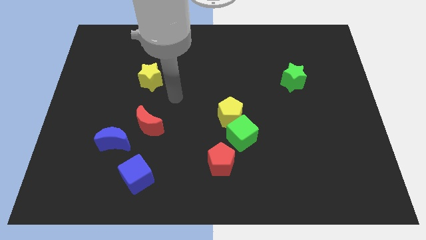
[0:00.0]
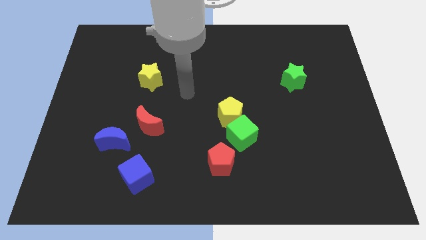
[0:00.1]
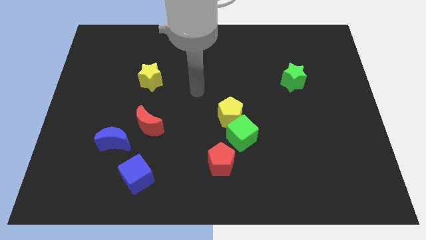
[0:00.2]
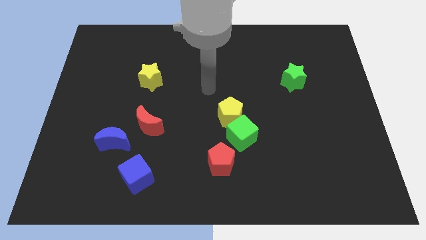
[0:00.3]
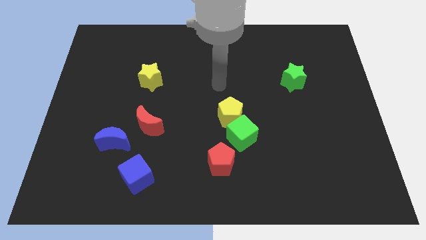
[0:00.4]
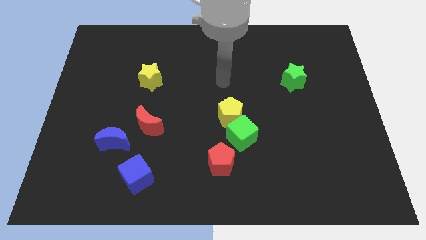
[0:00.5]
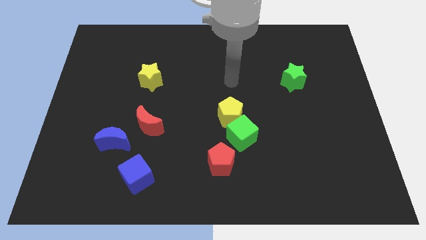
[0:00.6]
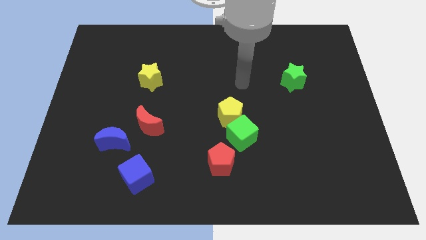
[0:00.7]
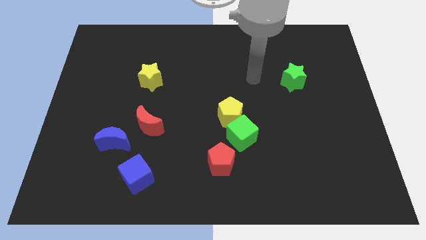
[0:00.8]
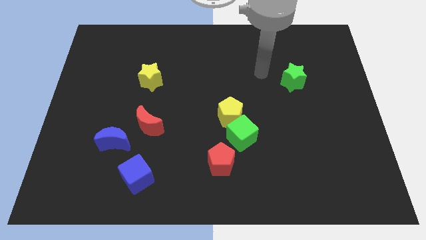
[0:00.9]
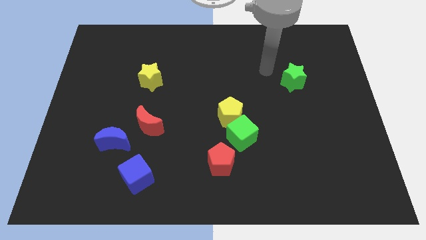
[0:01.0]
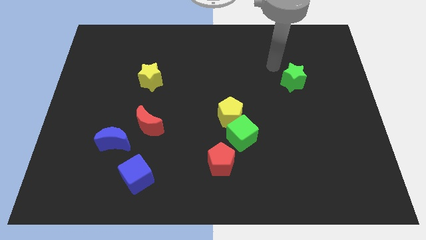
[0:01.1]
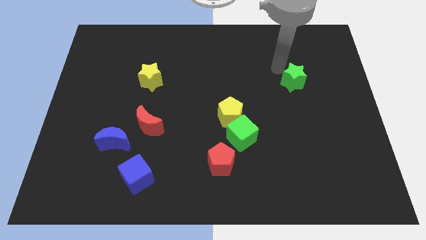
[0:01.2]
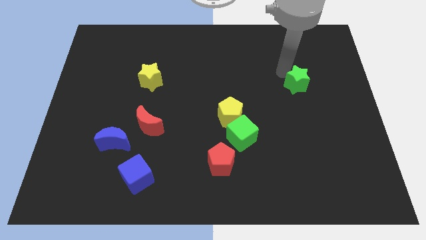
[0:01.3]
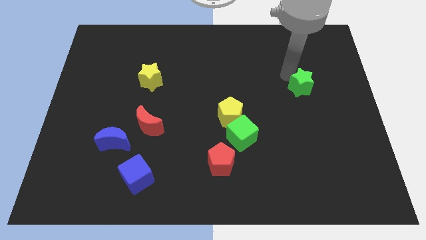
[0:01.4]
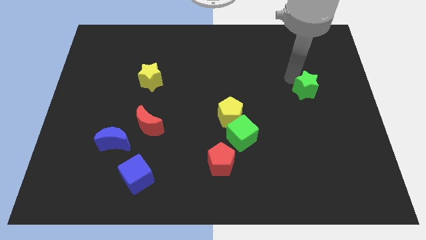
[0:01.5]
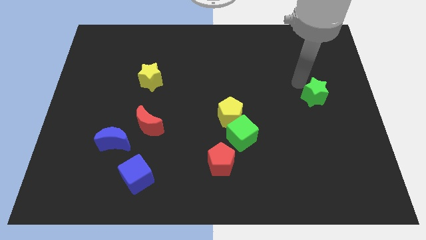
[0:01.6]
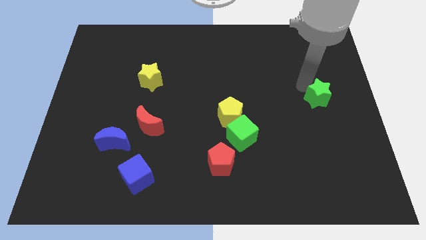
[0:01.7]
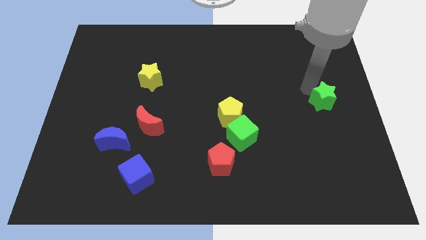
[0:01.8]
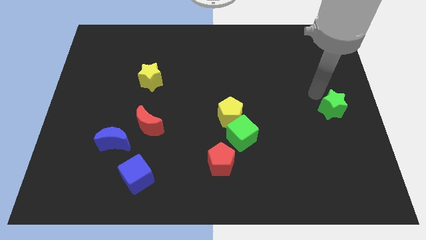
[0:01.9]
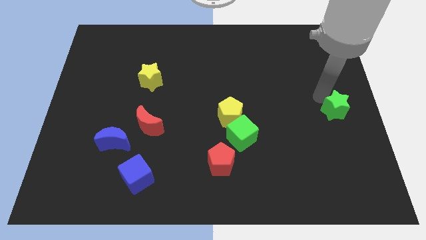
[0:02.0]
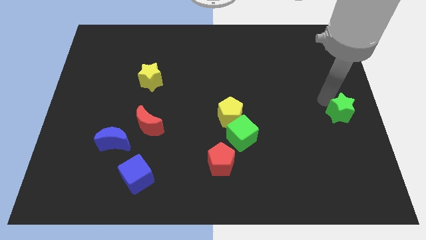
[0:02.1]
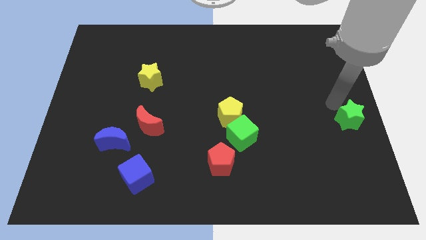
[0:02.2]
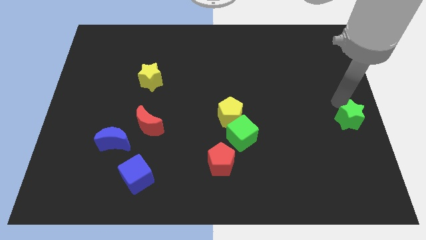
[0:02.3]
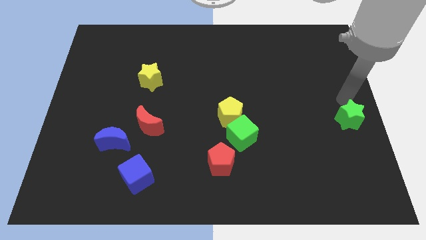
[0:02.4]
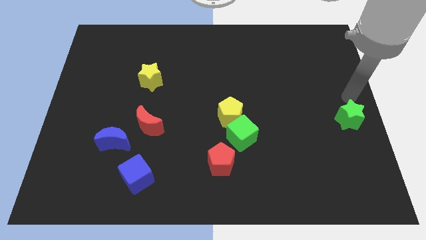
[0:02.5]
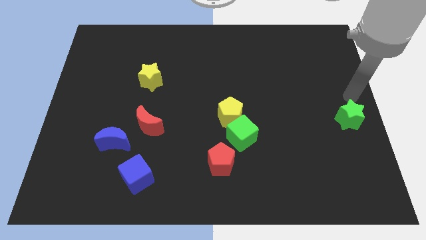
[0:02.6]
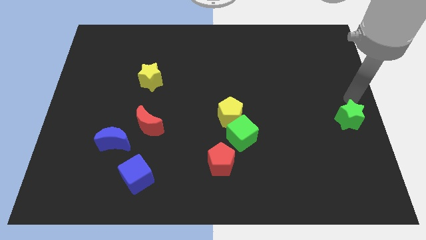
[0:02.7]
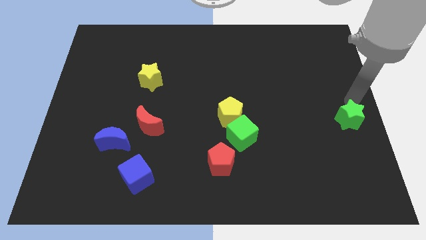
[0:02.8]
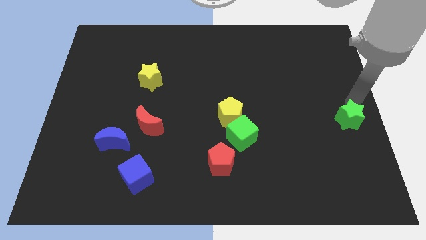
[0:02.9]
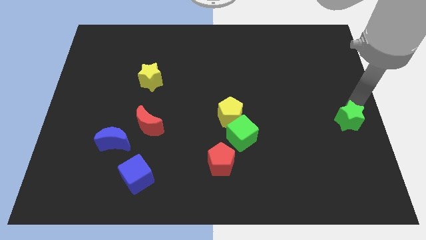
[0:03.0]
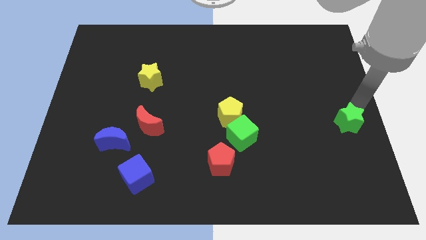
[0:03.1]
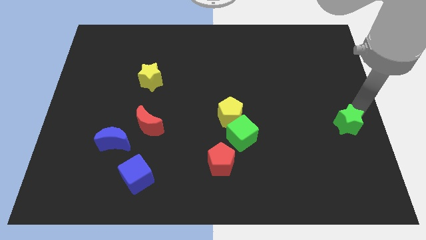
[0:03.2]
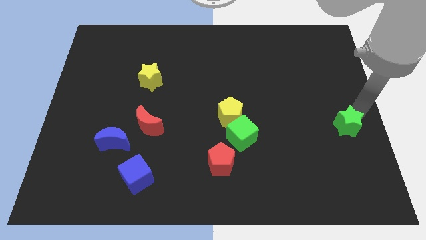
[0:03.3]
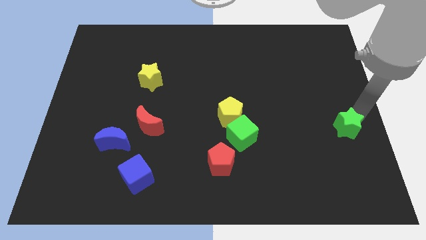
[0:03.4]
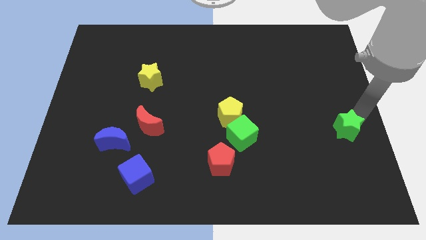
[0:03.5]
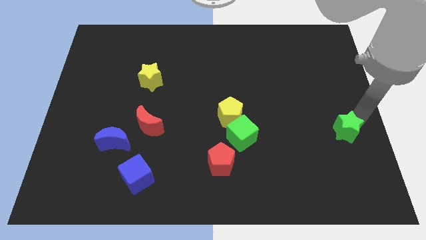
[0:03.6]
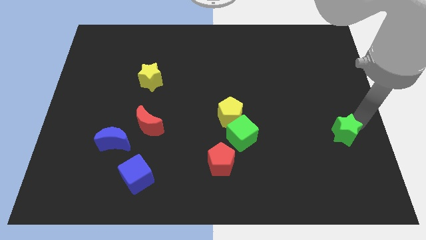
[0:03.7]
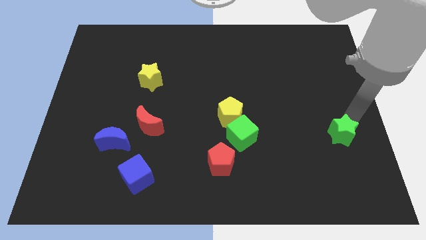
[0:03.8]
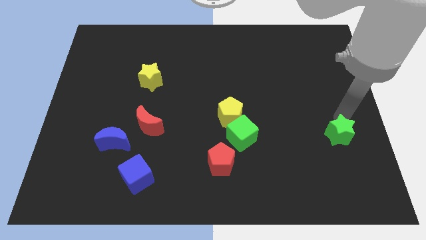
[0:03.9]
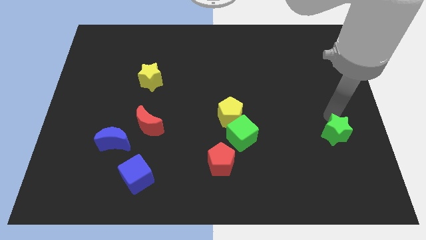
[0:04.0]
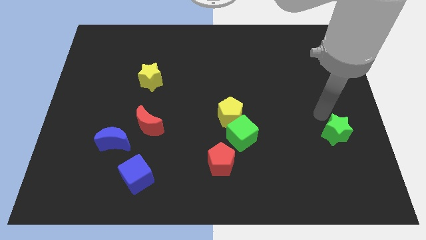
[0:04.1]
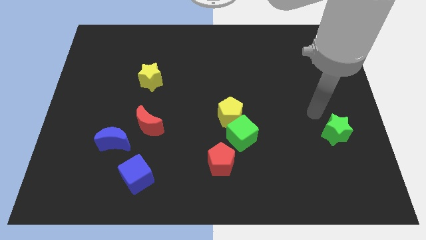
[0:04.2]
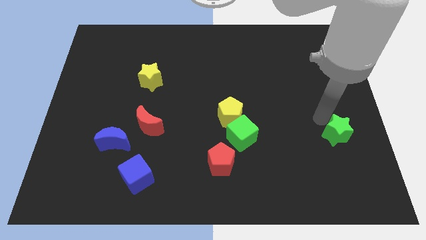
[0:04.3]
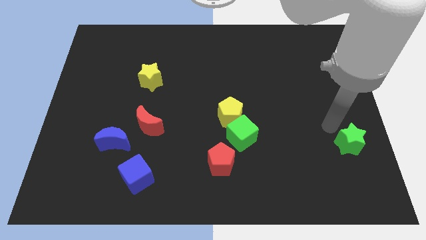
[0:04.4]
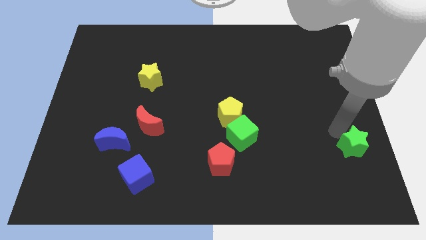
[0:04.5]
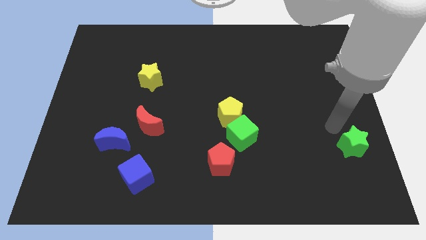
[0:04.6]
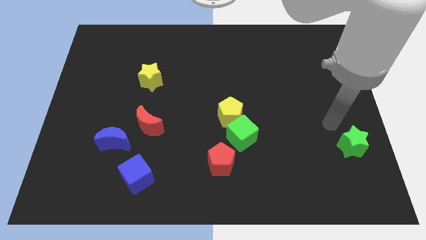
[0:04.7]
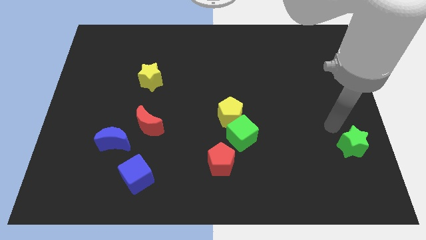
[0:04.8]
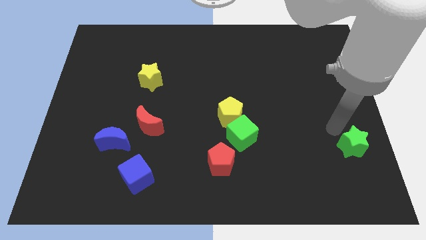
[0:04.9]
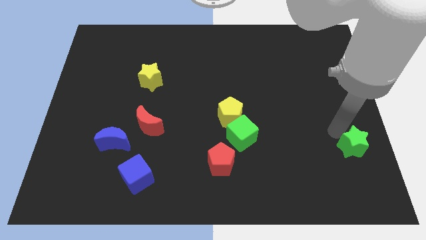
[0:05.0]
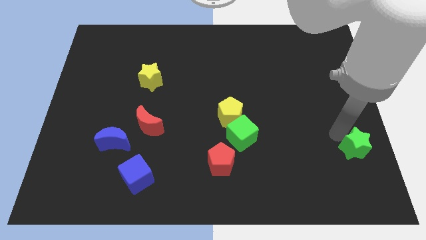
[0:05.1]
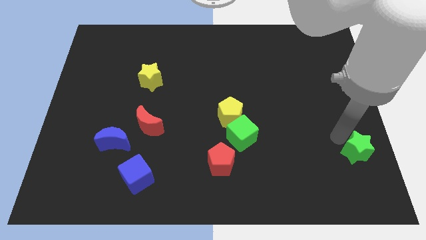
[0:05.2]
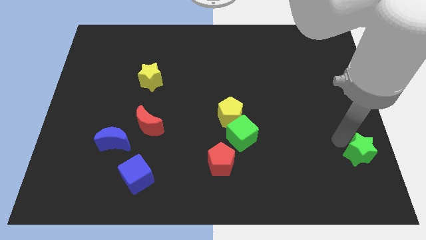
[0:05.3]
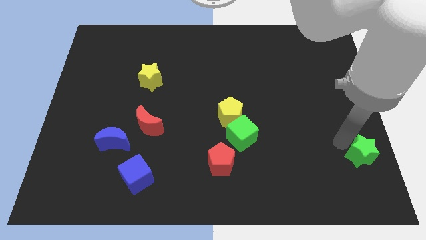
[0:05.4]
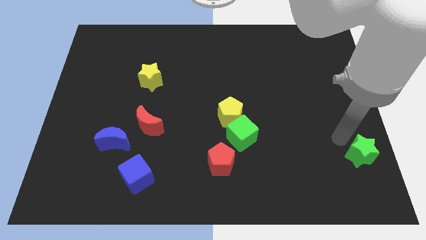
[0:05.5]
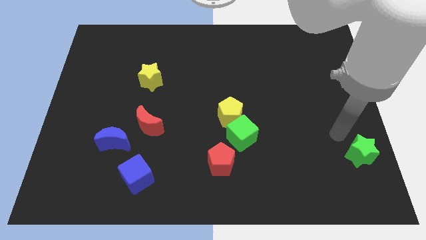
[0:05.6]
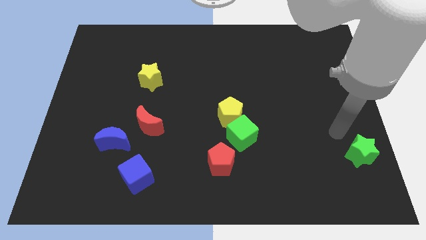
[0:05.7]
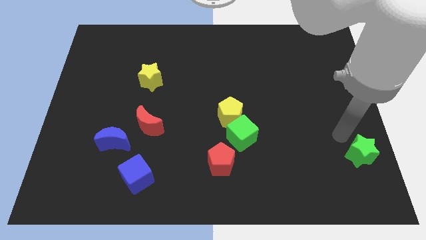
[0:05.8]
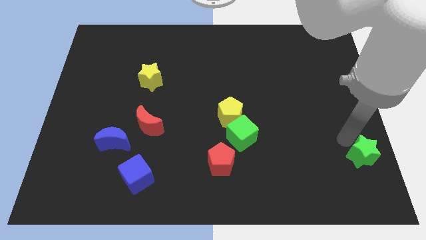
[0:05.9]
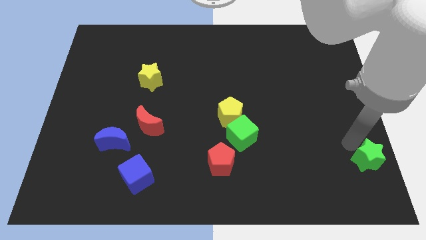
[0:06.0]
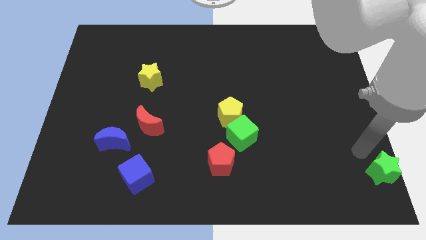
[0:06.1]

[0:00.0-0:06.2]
push the green star to the bottom right
